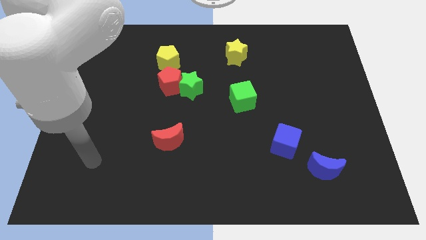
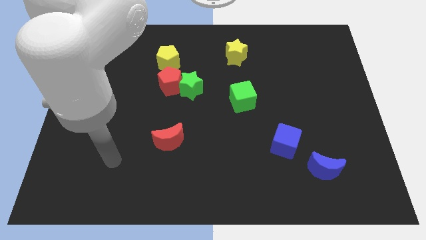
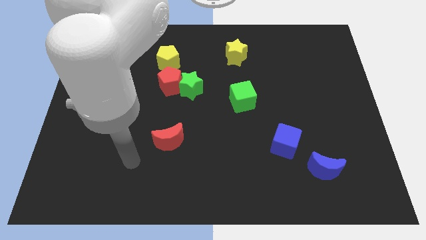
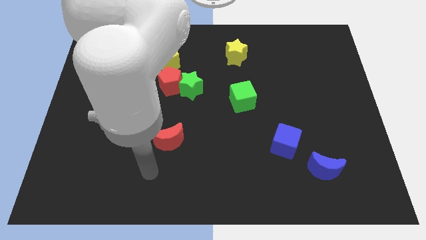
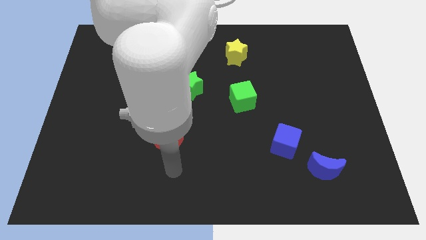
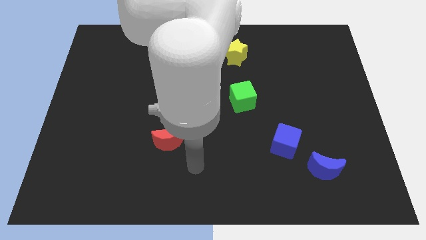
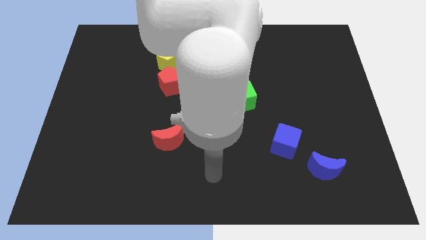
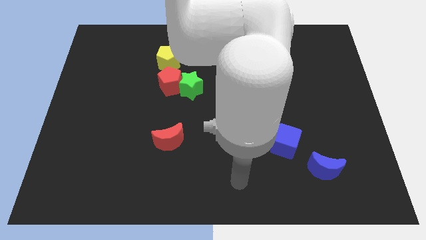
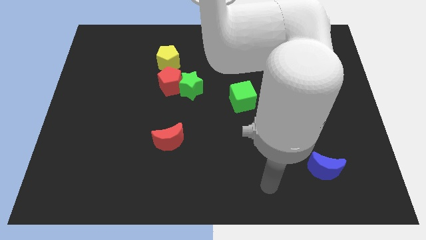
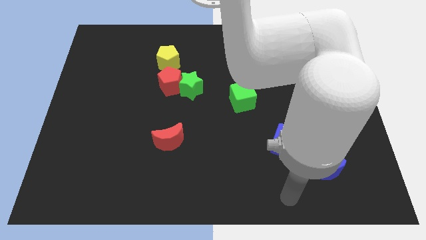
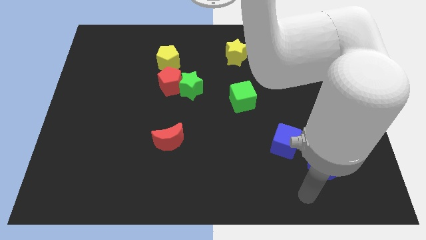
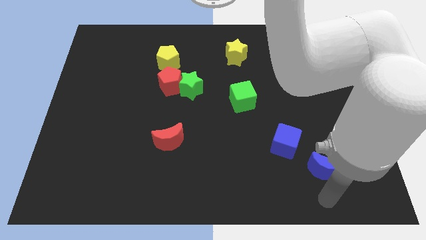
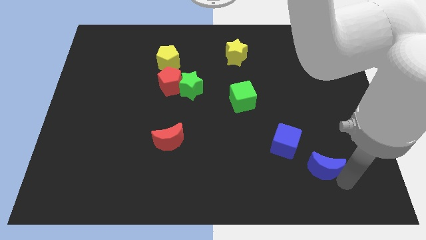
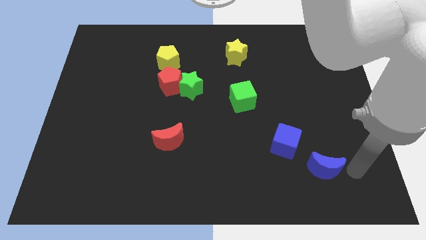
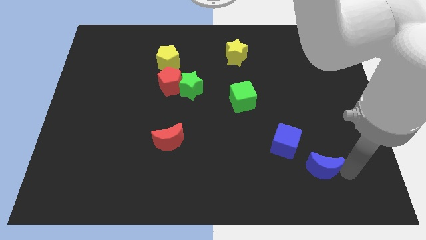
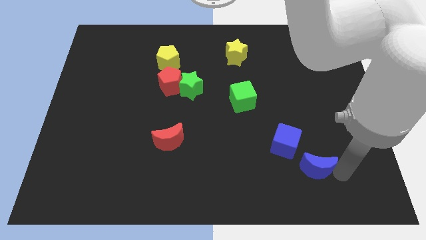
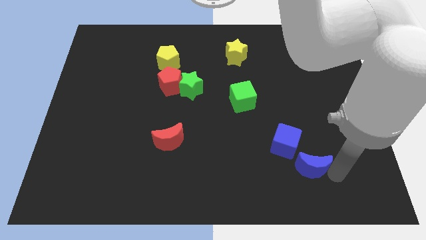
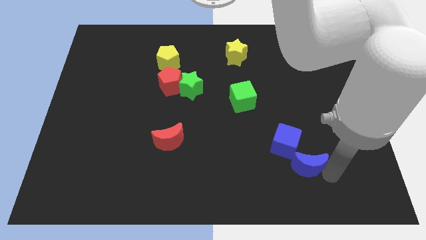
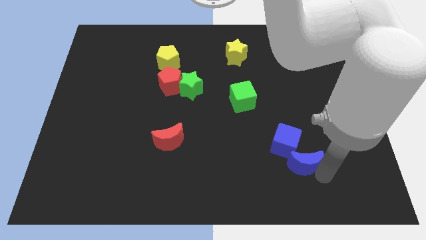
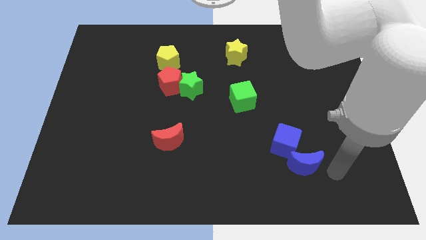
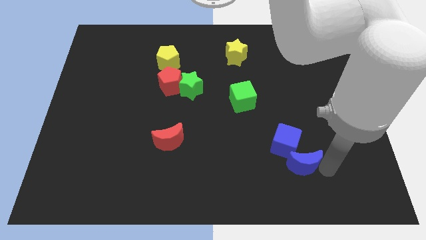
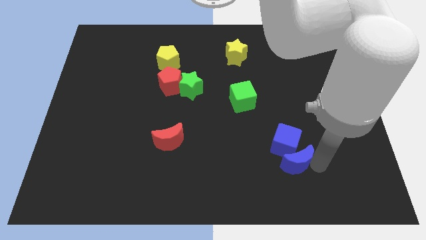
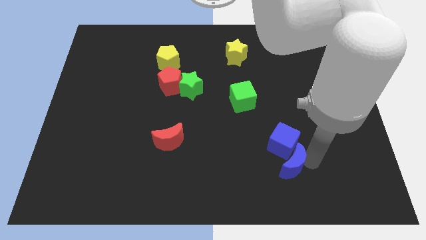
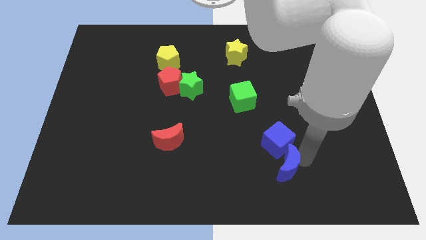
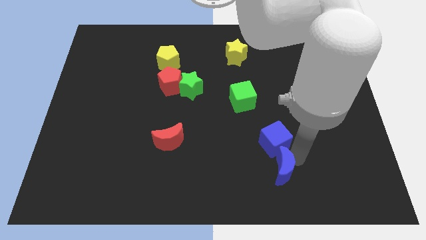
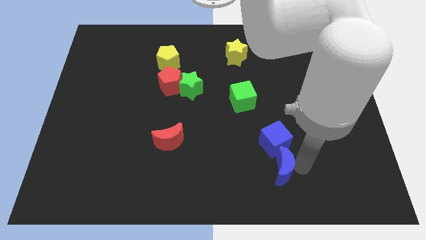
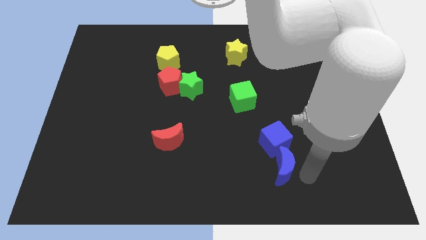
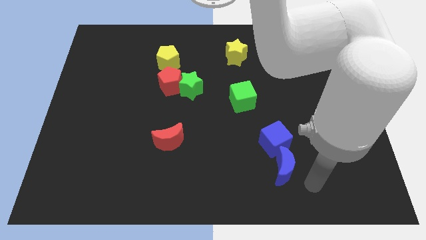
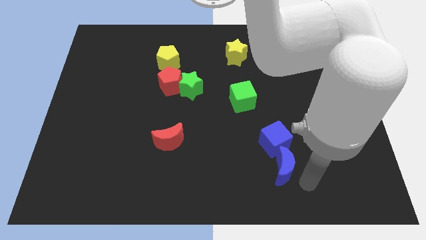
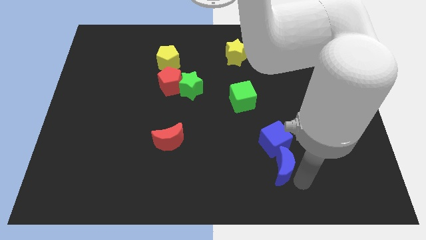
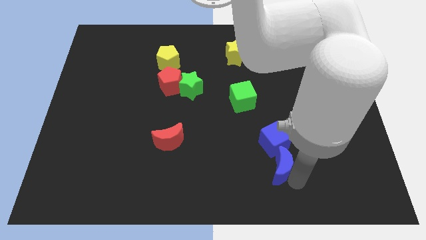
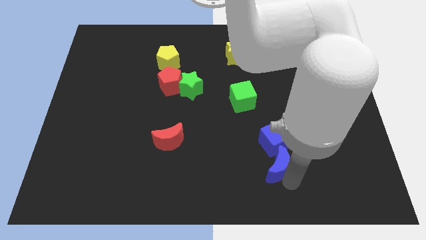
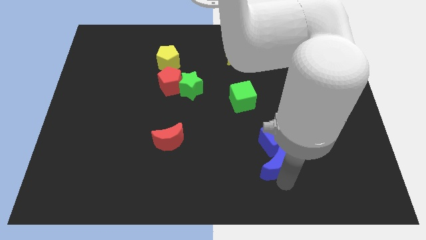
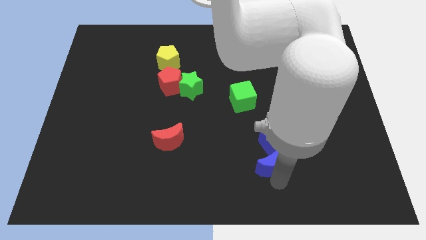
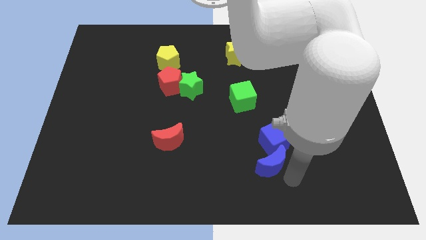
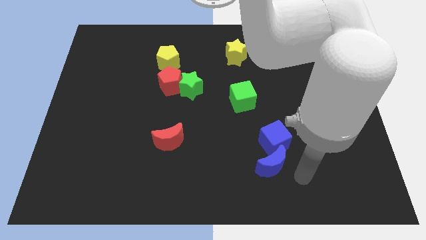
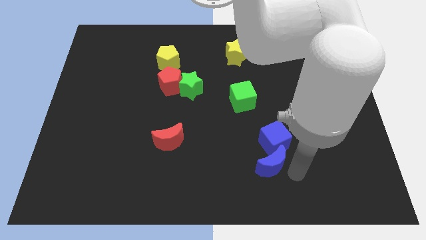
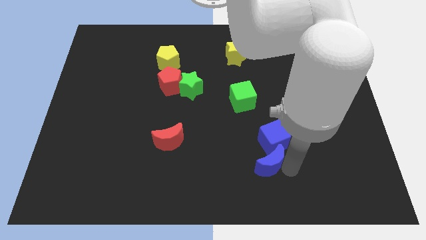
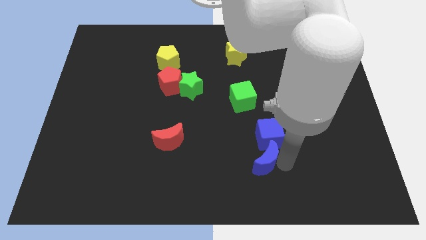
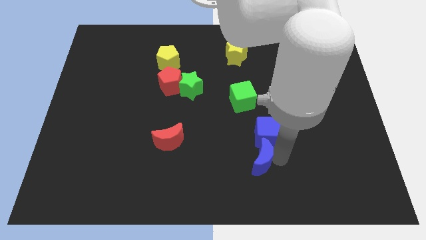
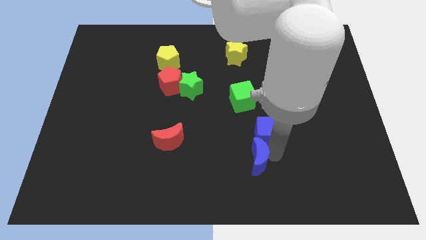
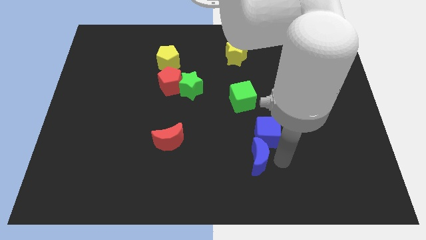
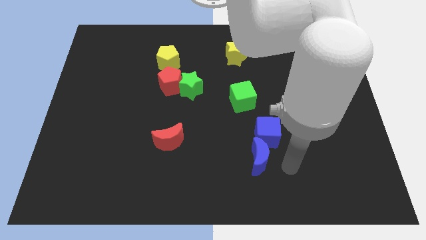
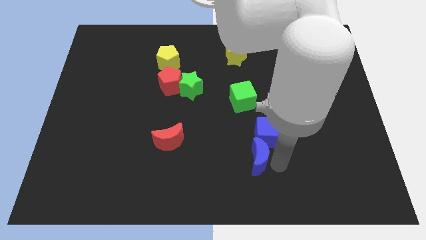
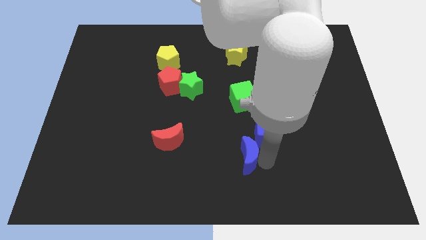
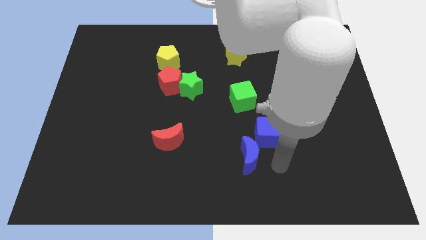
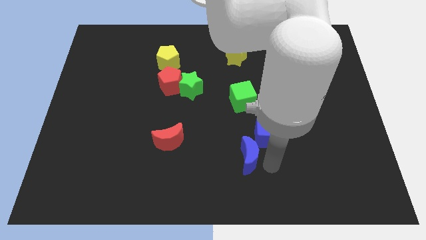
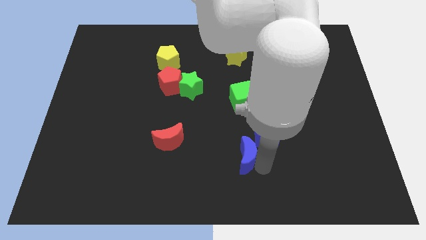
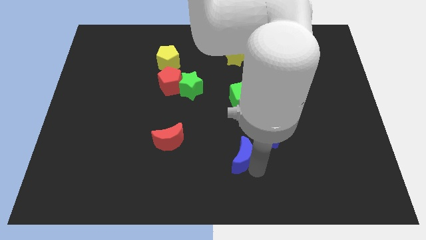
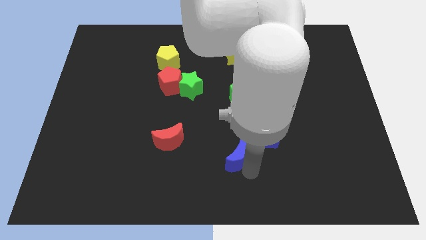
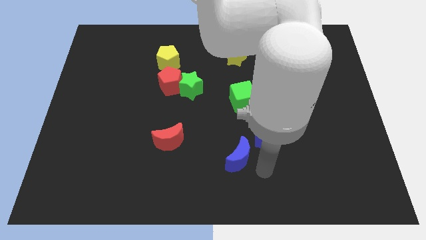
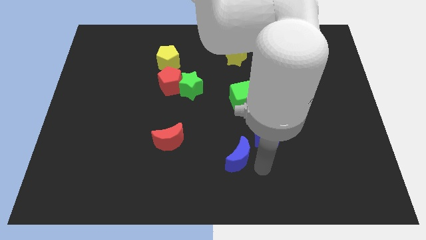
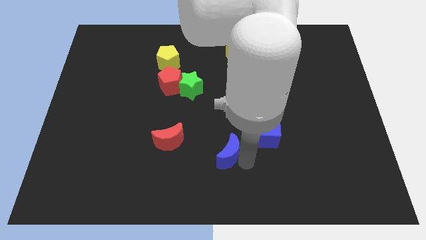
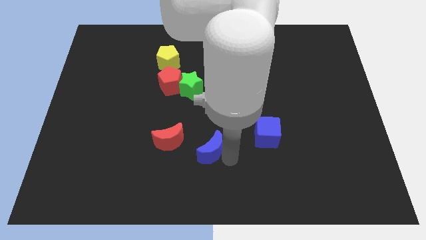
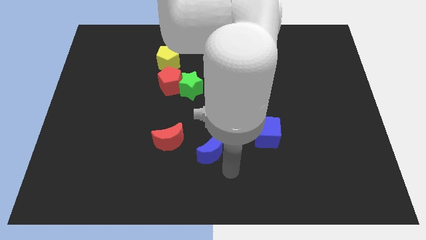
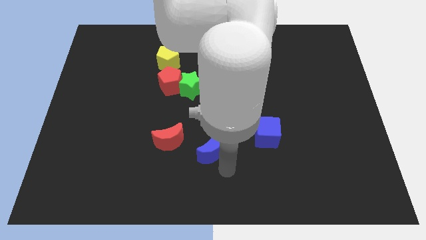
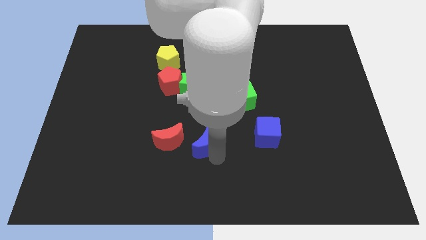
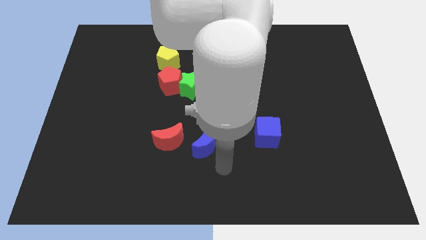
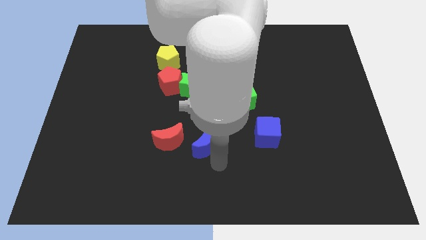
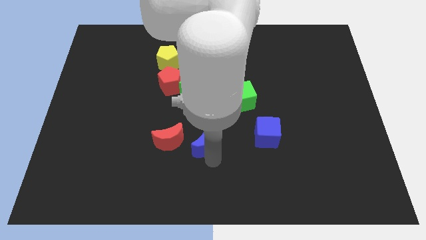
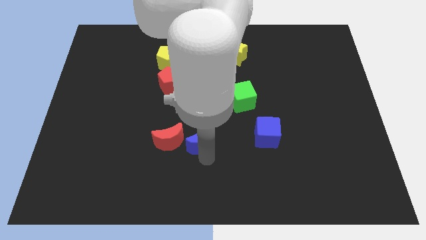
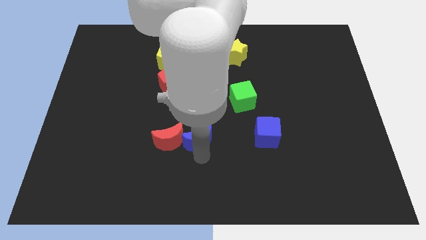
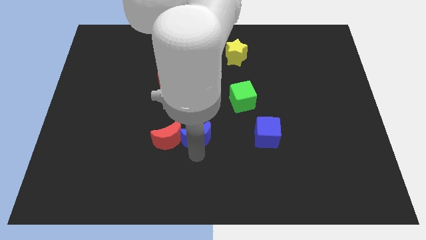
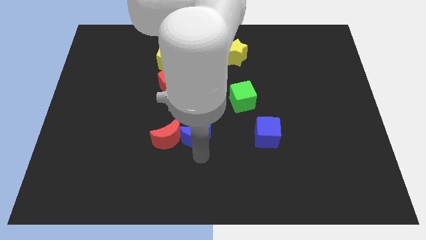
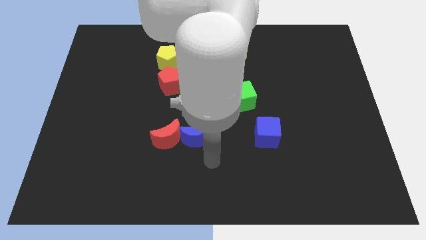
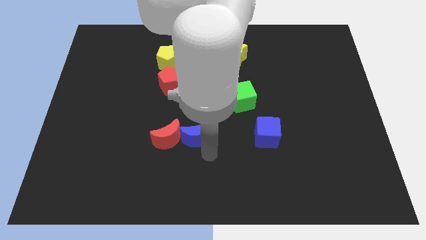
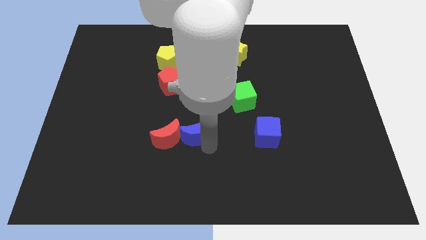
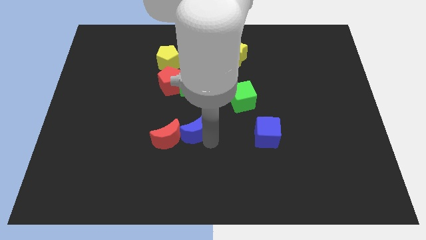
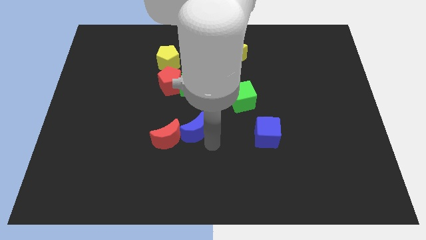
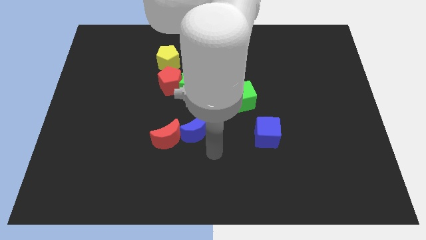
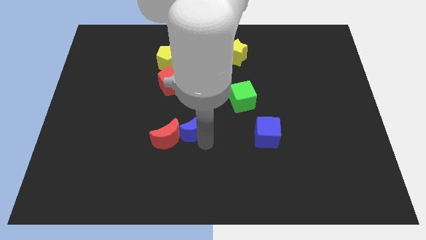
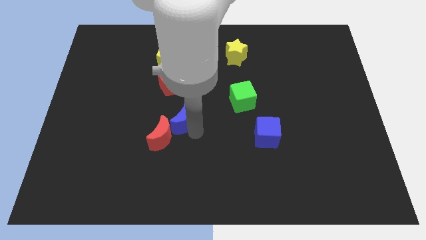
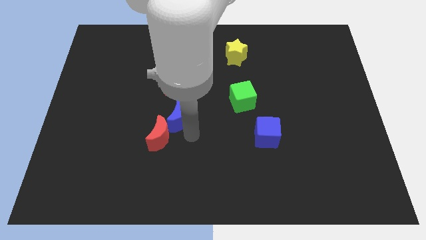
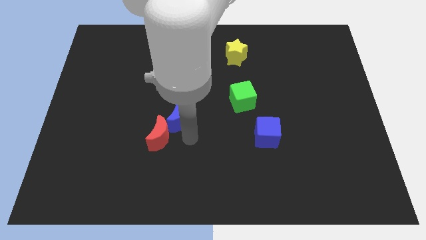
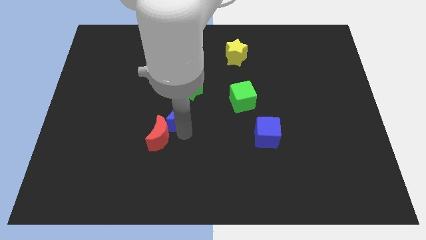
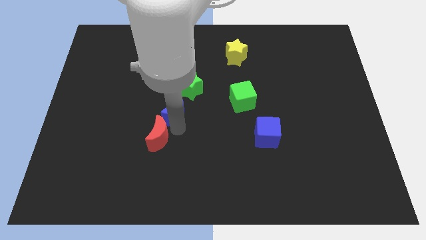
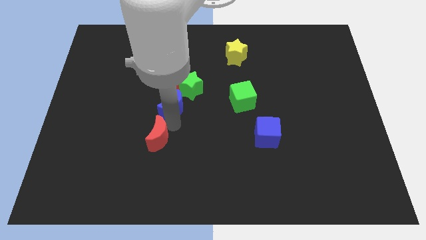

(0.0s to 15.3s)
put the blue moon to the bottom of the yellow pentagon
